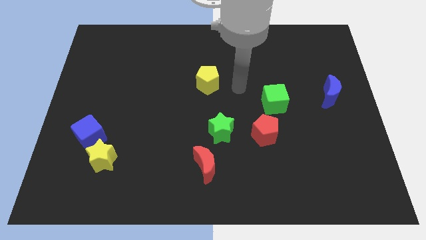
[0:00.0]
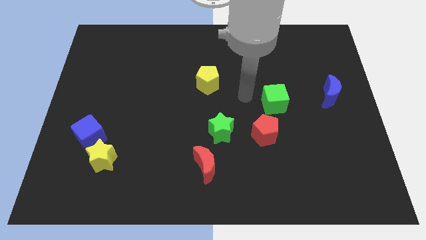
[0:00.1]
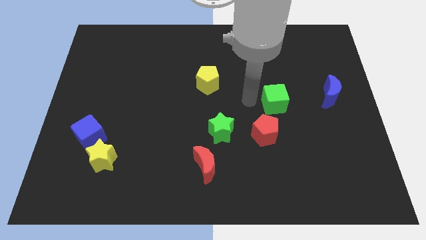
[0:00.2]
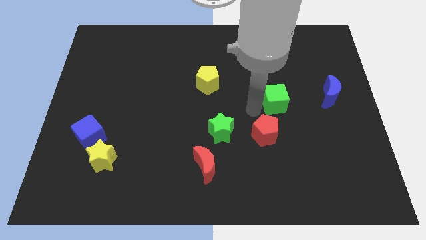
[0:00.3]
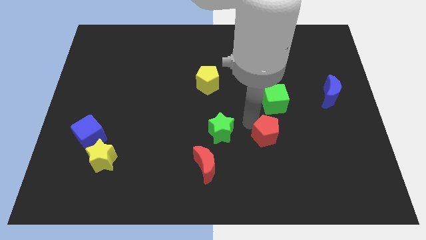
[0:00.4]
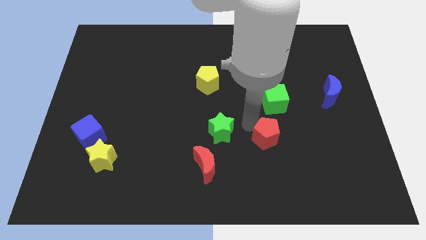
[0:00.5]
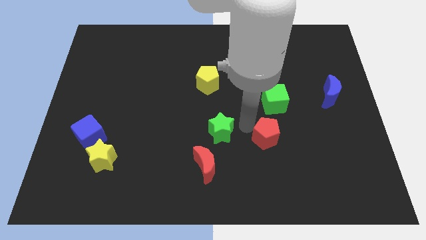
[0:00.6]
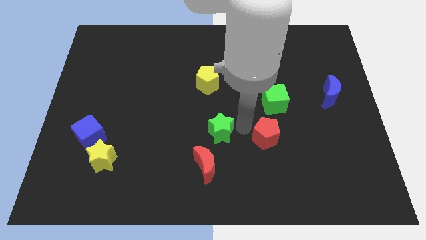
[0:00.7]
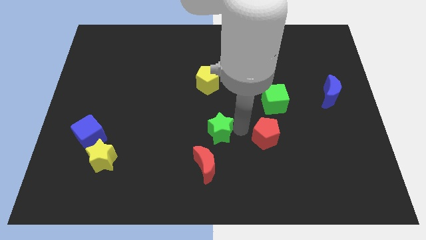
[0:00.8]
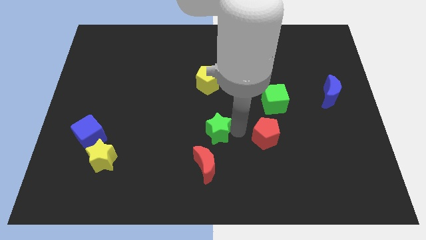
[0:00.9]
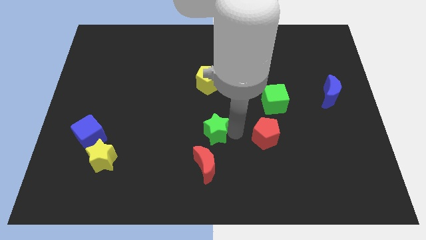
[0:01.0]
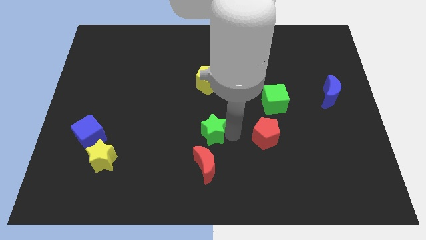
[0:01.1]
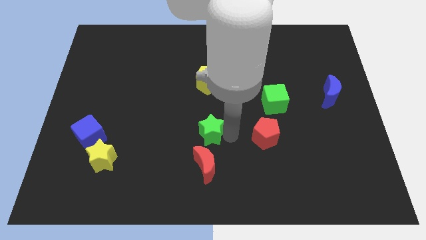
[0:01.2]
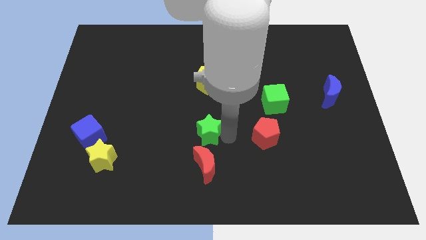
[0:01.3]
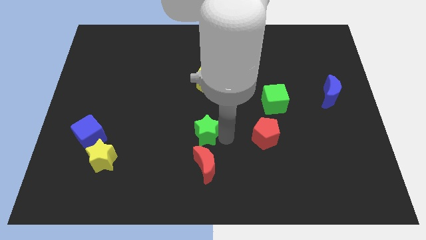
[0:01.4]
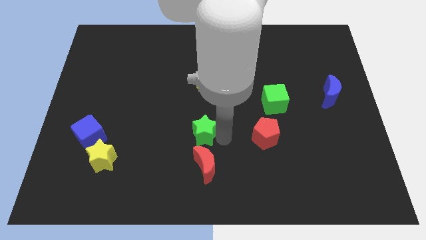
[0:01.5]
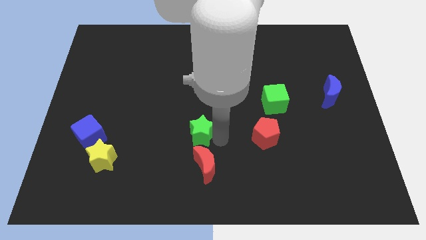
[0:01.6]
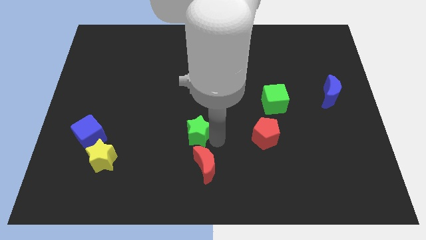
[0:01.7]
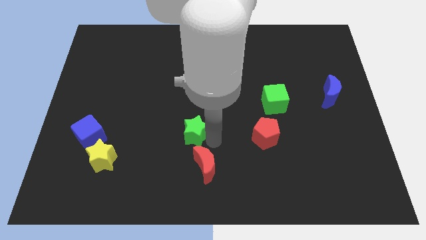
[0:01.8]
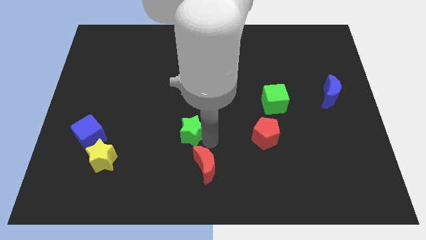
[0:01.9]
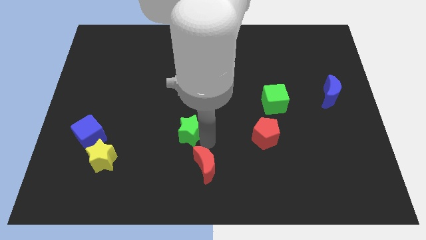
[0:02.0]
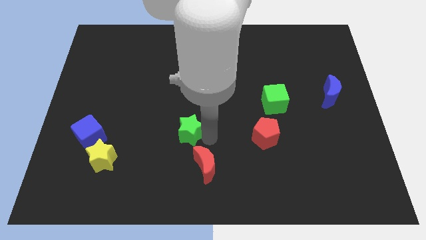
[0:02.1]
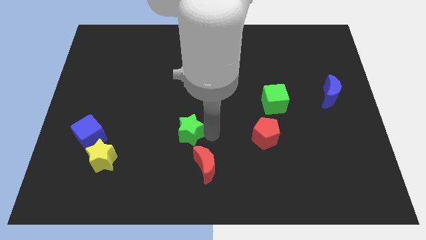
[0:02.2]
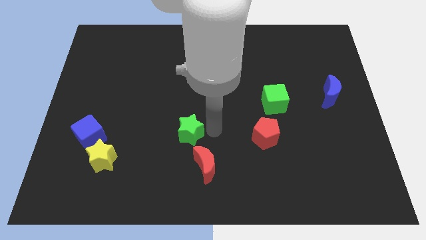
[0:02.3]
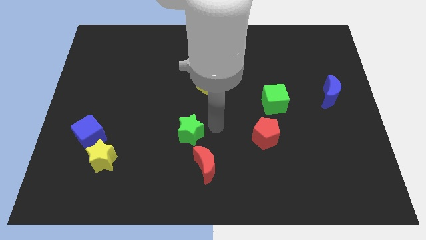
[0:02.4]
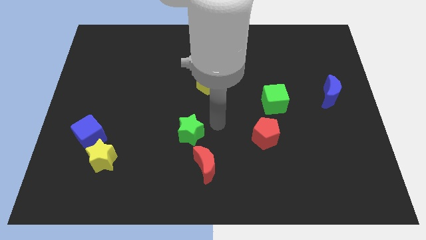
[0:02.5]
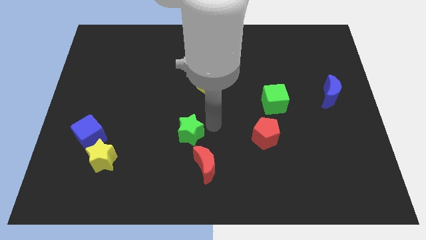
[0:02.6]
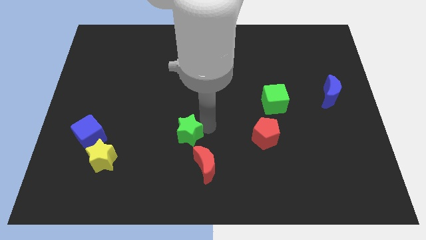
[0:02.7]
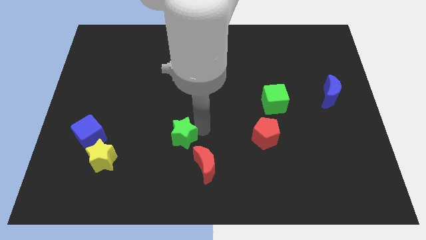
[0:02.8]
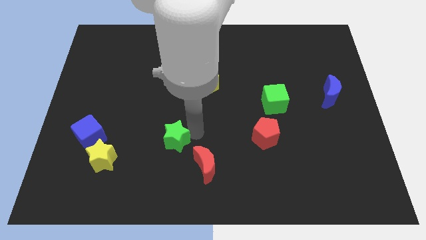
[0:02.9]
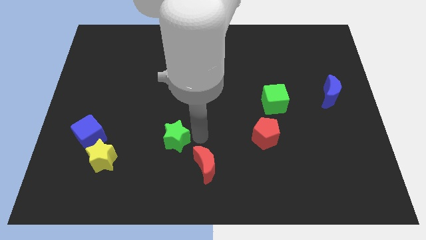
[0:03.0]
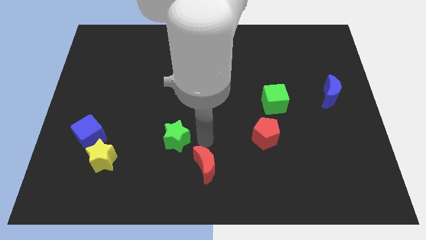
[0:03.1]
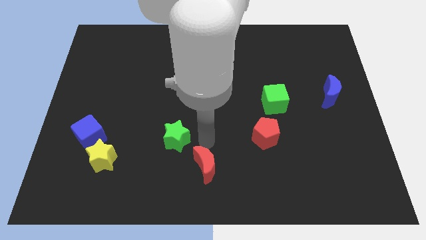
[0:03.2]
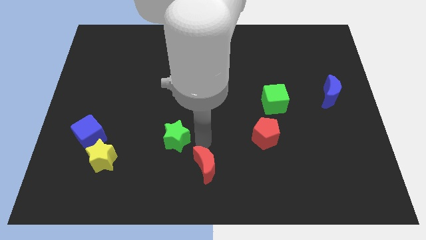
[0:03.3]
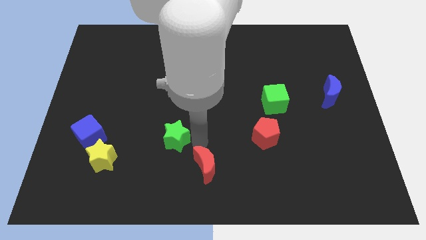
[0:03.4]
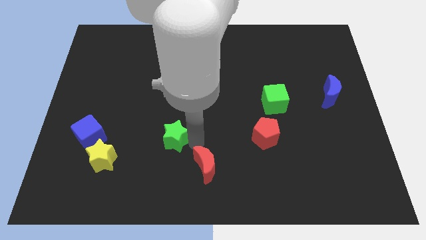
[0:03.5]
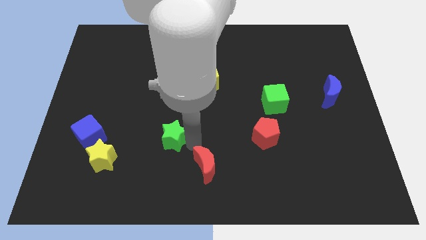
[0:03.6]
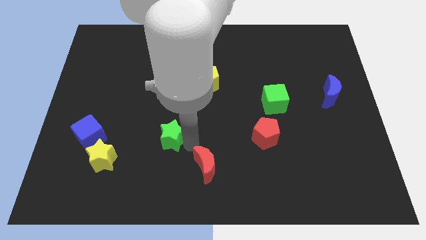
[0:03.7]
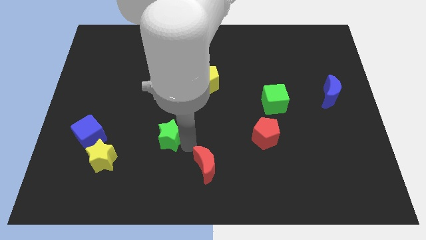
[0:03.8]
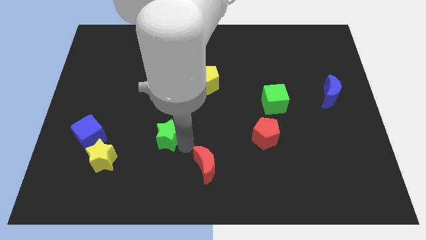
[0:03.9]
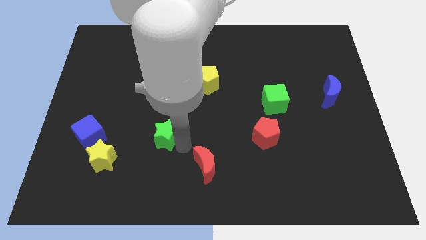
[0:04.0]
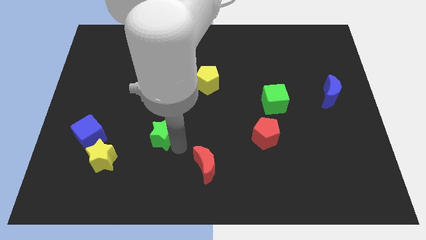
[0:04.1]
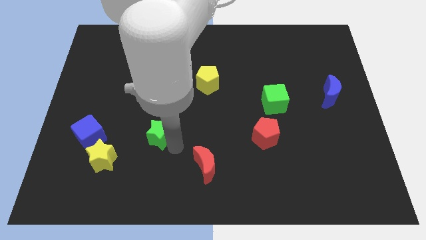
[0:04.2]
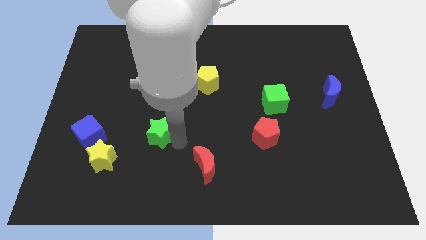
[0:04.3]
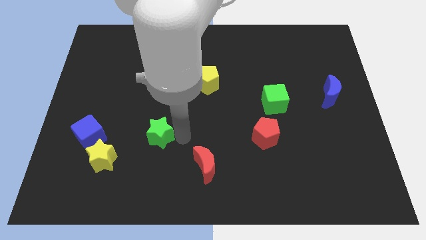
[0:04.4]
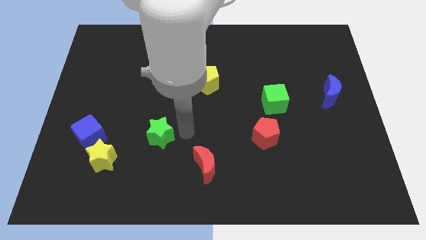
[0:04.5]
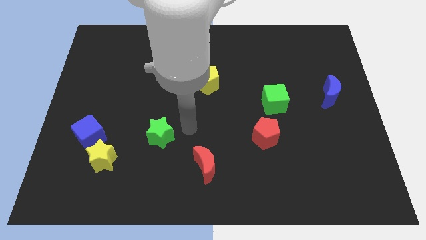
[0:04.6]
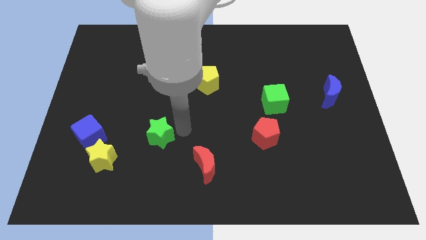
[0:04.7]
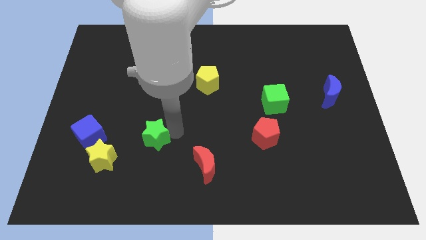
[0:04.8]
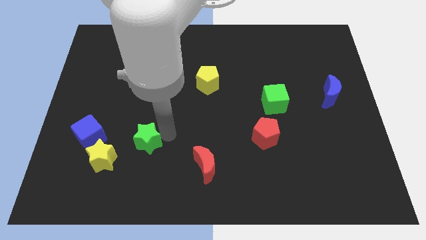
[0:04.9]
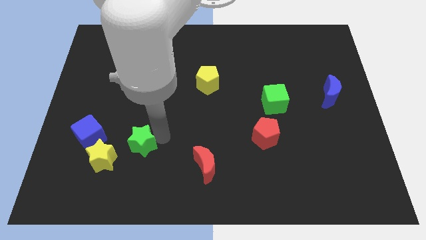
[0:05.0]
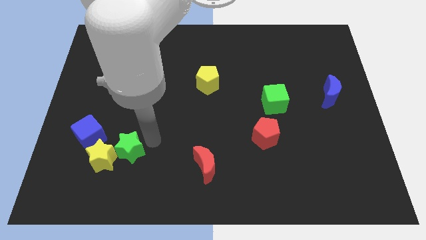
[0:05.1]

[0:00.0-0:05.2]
put the green star next to the yellow star

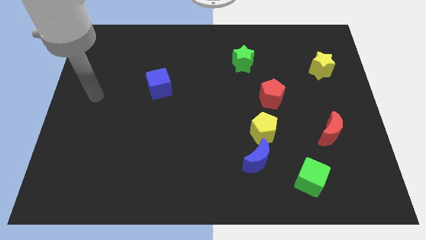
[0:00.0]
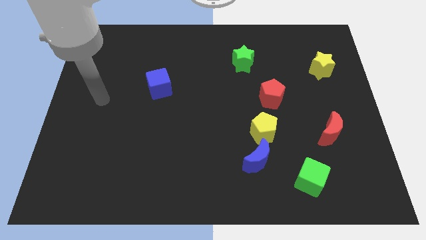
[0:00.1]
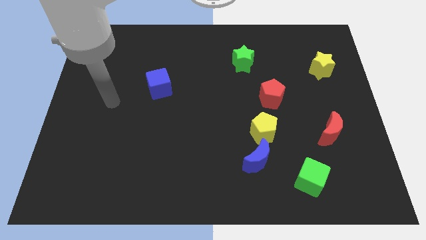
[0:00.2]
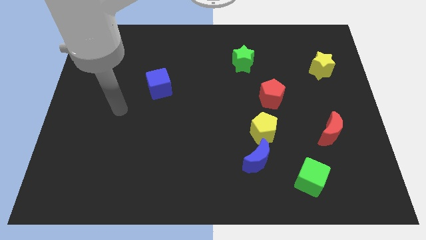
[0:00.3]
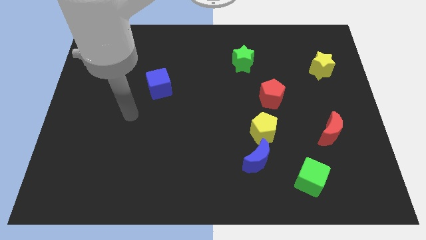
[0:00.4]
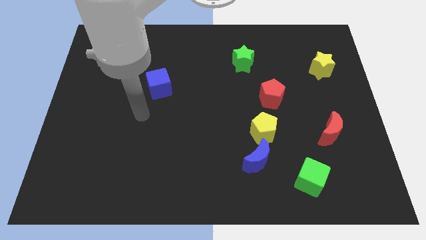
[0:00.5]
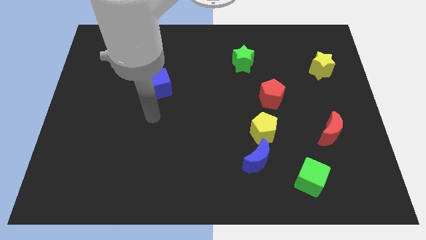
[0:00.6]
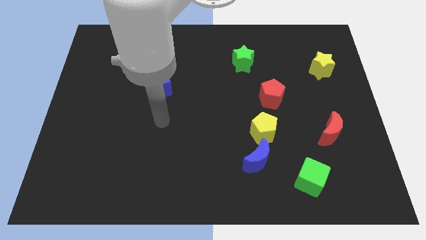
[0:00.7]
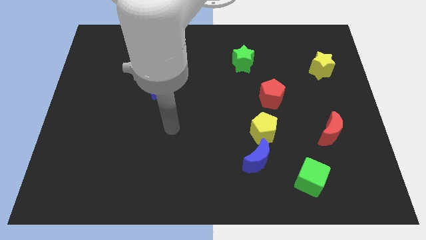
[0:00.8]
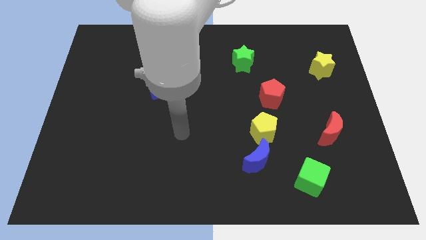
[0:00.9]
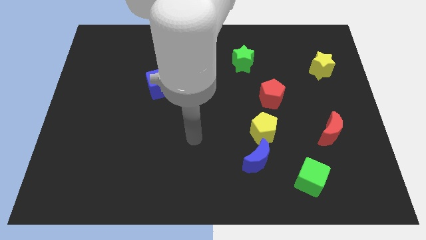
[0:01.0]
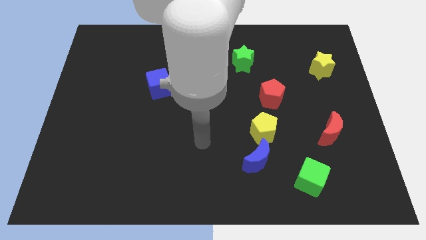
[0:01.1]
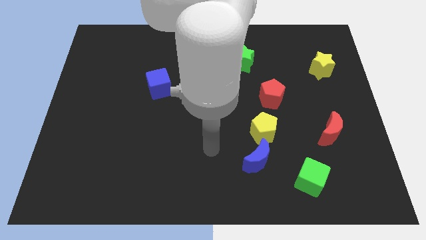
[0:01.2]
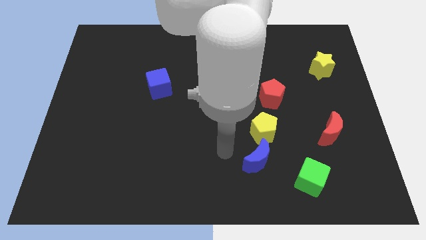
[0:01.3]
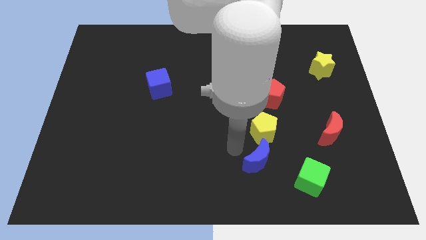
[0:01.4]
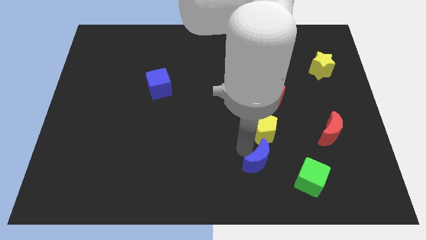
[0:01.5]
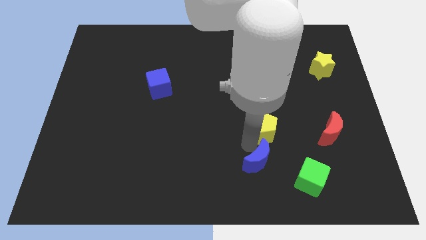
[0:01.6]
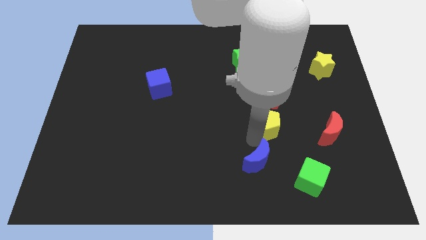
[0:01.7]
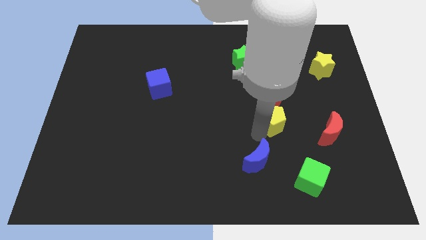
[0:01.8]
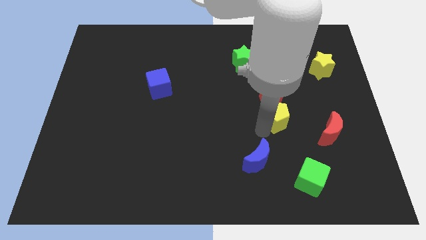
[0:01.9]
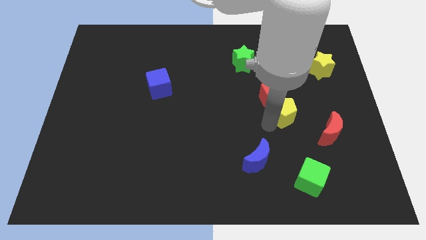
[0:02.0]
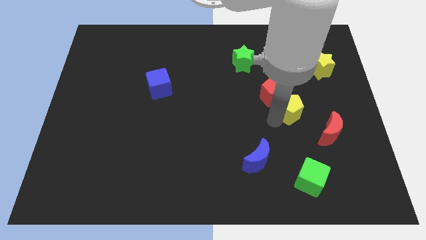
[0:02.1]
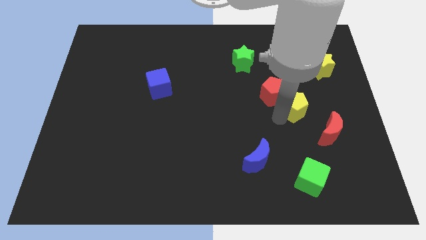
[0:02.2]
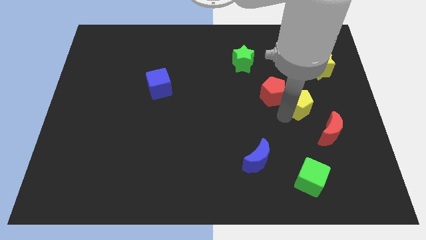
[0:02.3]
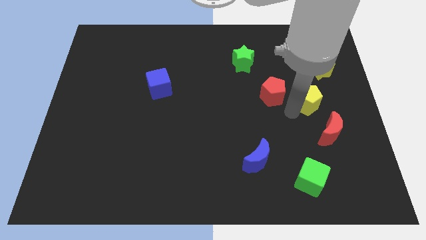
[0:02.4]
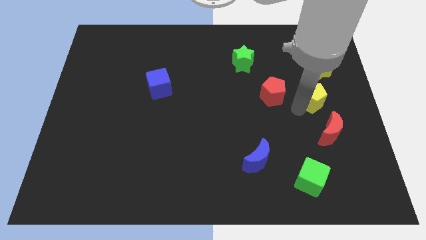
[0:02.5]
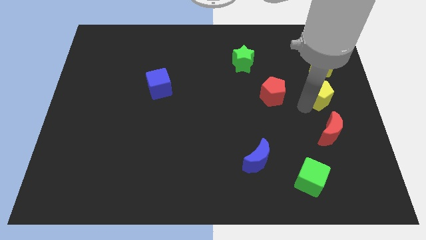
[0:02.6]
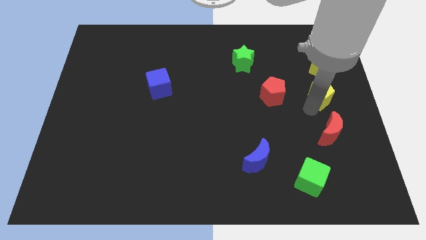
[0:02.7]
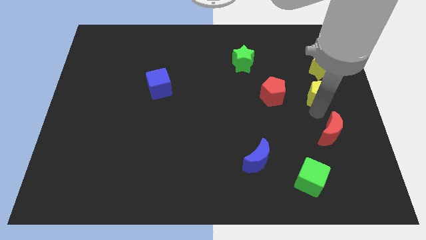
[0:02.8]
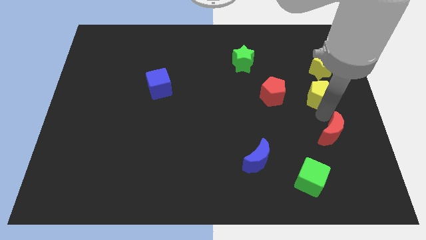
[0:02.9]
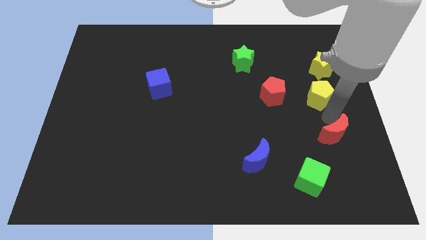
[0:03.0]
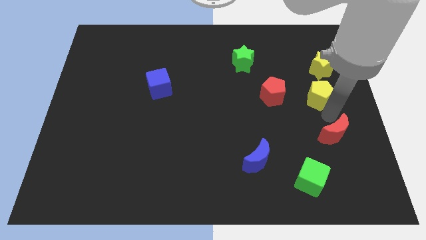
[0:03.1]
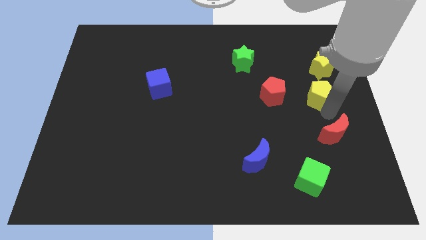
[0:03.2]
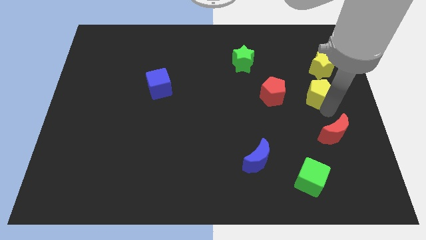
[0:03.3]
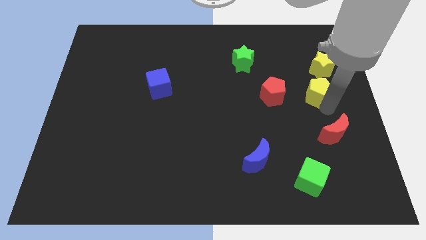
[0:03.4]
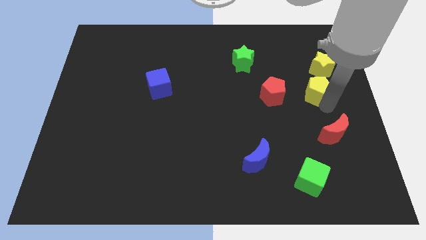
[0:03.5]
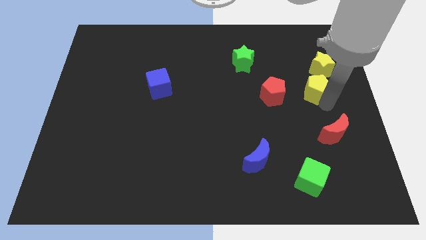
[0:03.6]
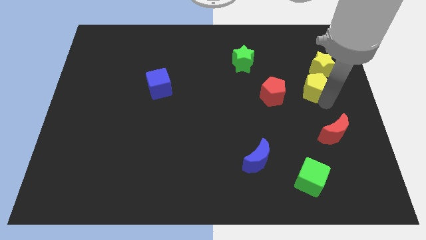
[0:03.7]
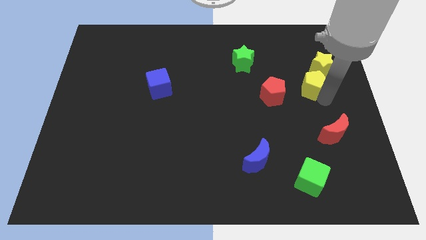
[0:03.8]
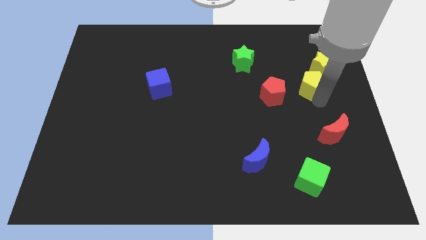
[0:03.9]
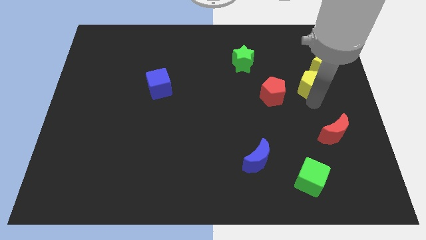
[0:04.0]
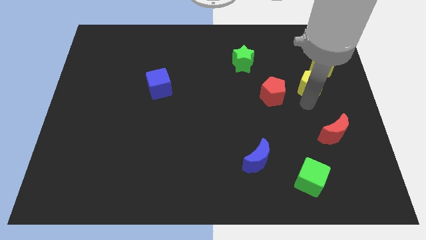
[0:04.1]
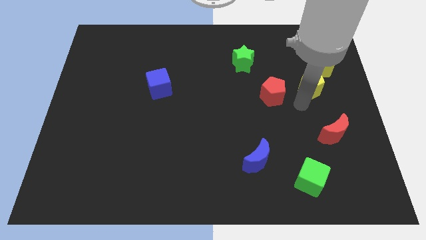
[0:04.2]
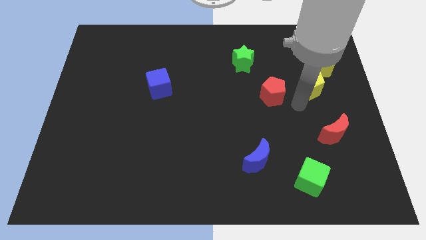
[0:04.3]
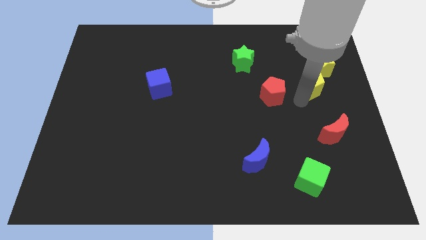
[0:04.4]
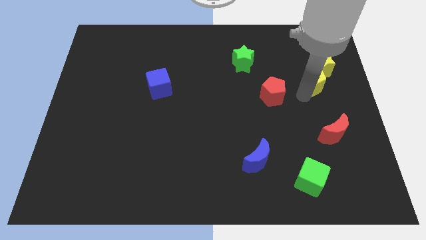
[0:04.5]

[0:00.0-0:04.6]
slide the yellow pentagon towards the yellow star
